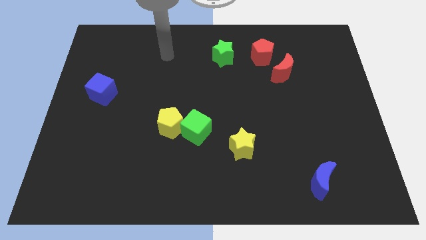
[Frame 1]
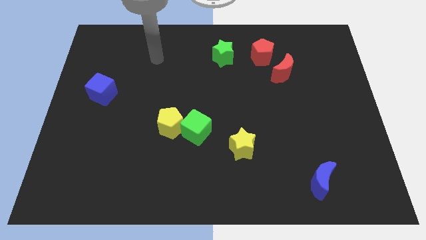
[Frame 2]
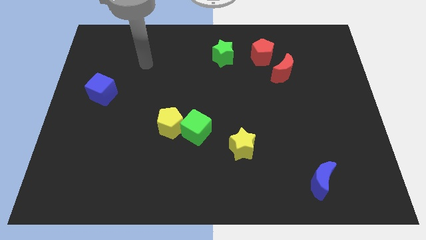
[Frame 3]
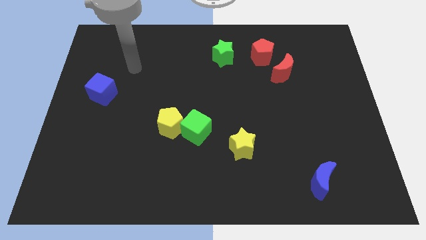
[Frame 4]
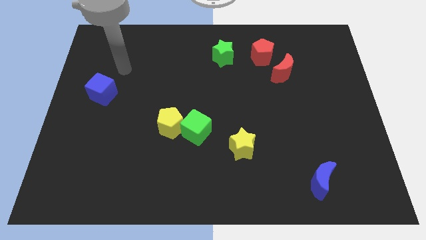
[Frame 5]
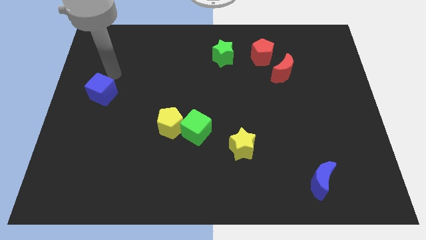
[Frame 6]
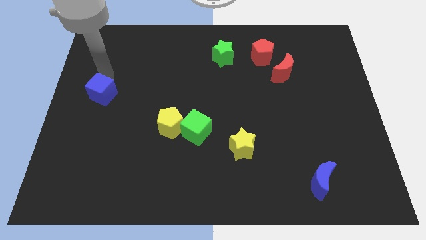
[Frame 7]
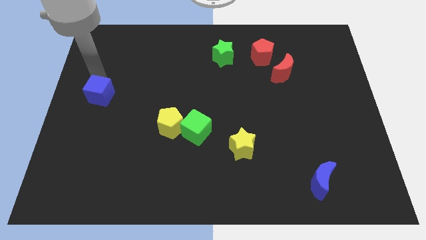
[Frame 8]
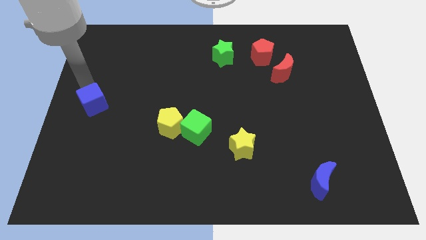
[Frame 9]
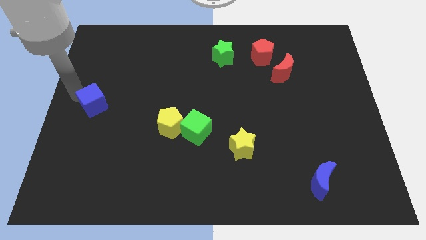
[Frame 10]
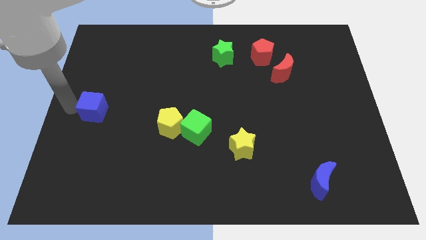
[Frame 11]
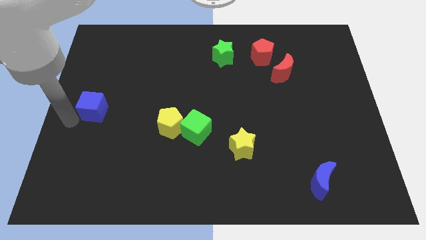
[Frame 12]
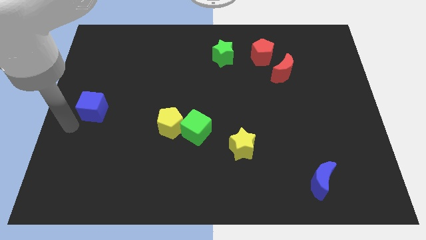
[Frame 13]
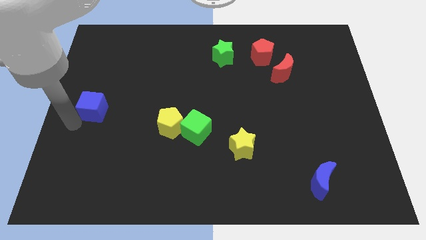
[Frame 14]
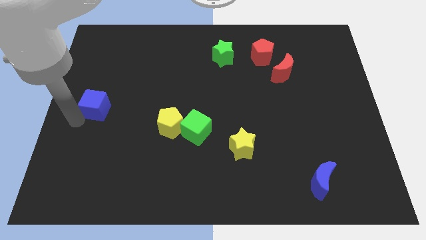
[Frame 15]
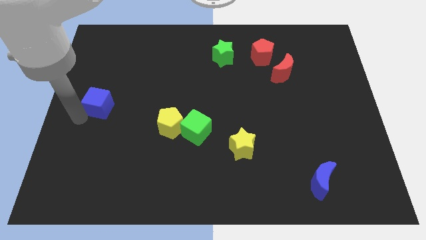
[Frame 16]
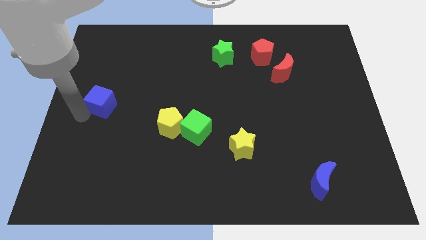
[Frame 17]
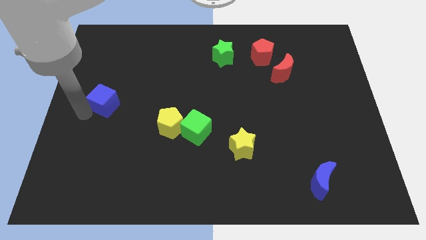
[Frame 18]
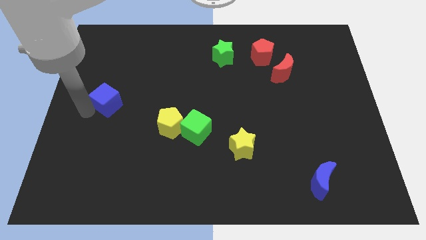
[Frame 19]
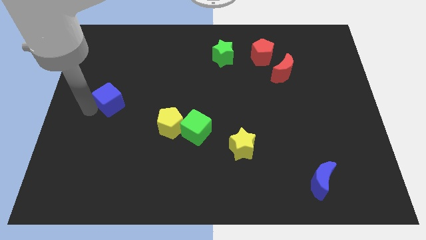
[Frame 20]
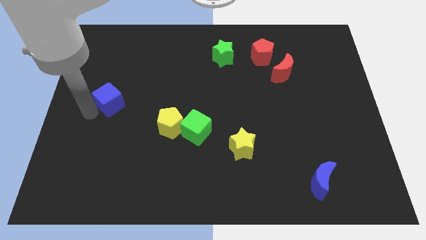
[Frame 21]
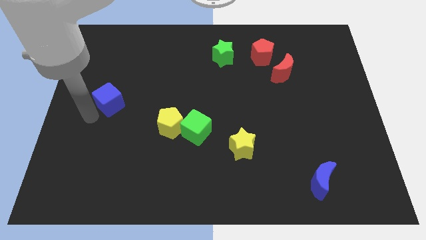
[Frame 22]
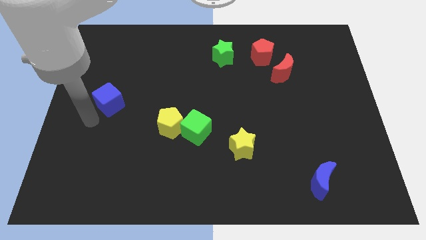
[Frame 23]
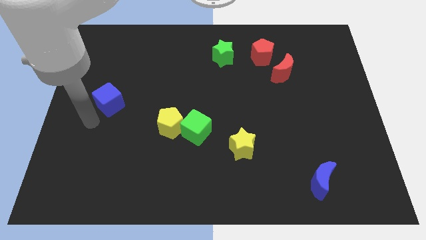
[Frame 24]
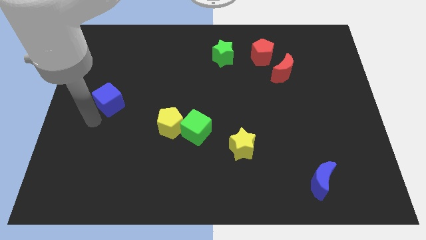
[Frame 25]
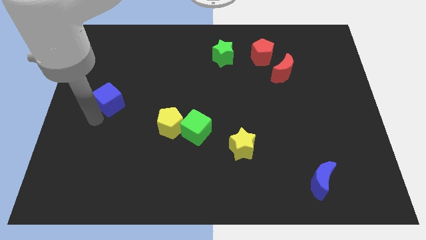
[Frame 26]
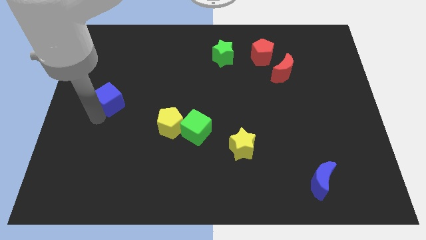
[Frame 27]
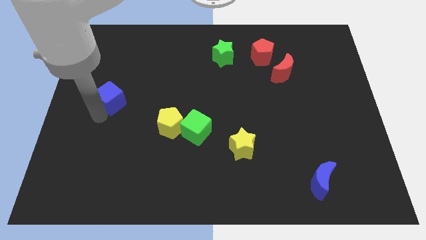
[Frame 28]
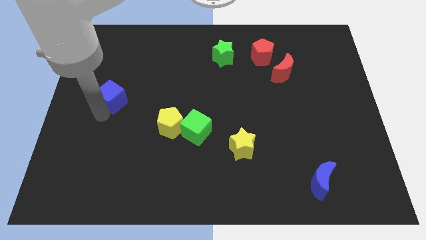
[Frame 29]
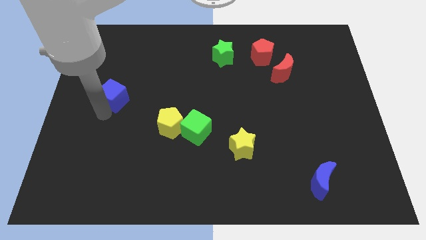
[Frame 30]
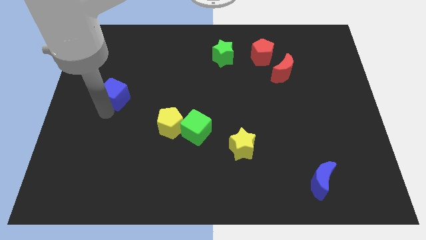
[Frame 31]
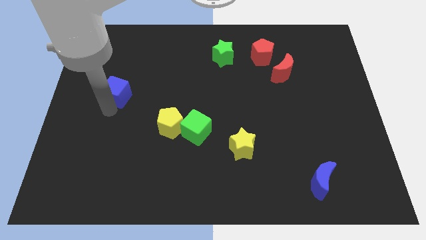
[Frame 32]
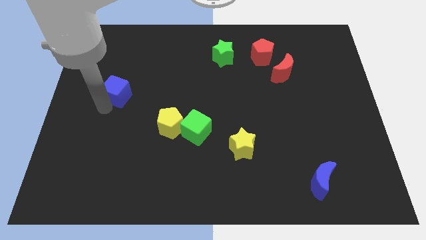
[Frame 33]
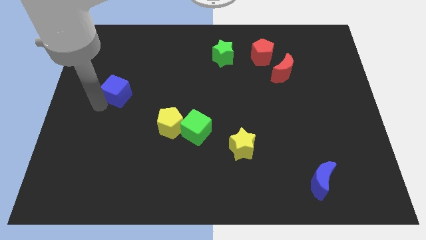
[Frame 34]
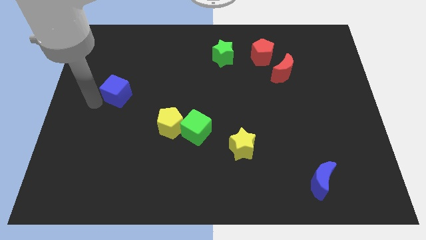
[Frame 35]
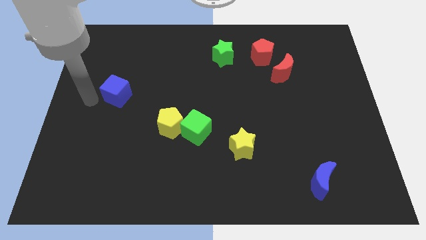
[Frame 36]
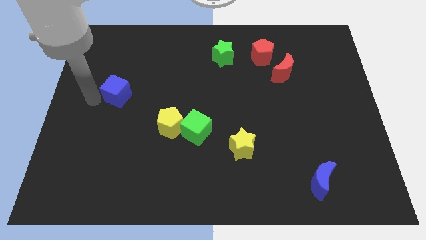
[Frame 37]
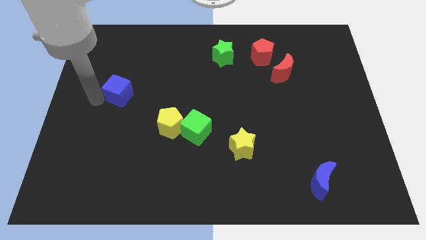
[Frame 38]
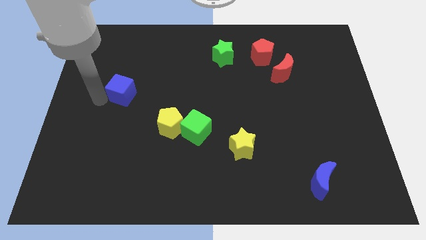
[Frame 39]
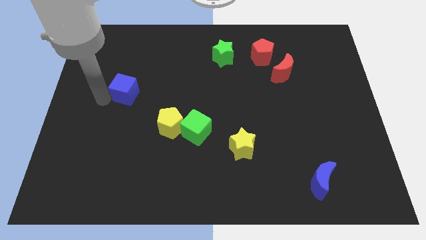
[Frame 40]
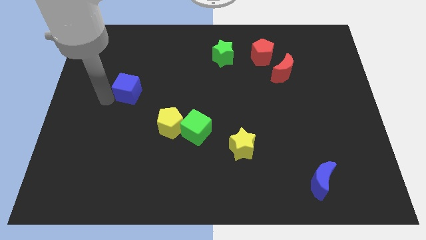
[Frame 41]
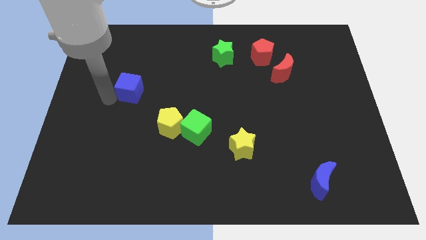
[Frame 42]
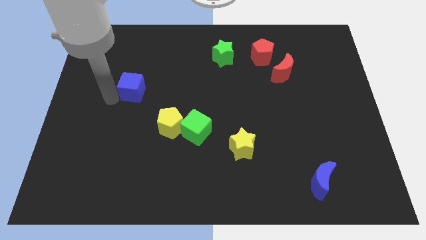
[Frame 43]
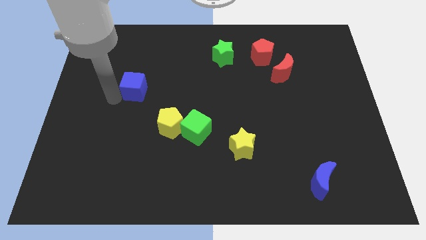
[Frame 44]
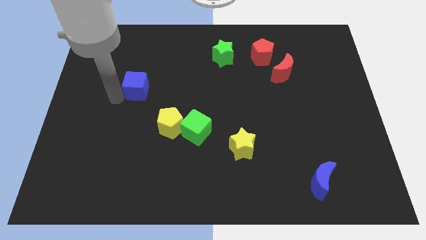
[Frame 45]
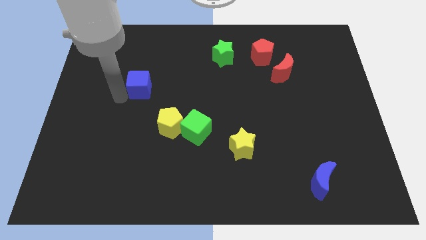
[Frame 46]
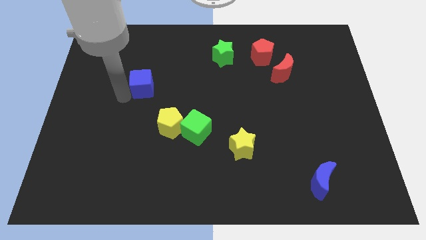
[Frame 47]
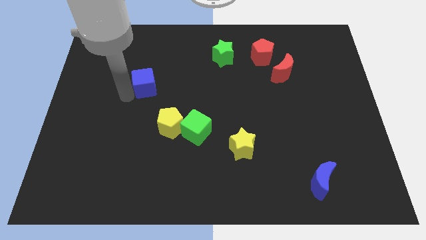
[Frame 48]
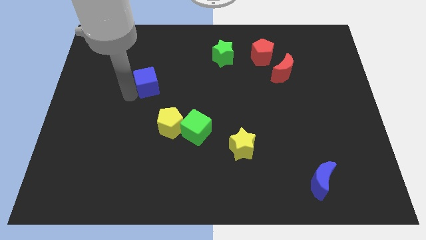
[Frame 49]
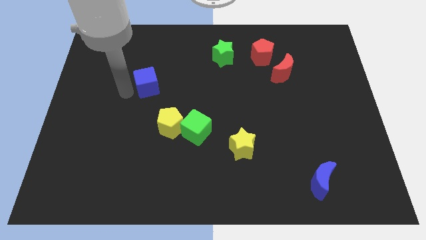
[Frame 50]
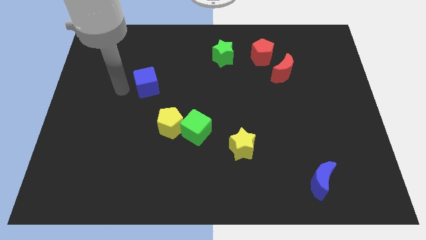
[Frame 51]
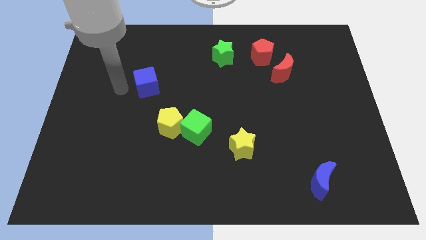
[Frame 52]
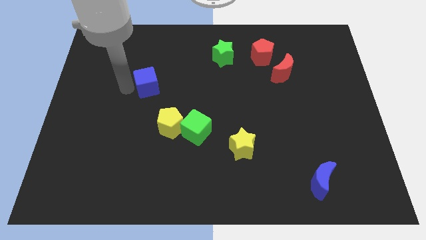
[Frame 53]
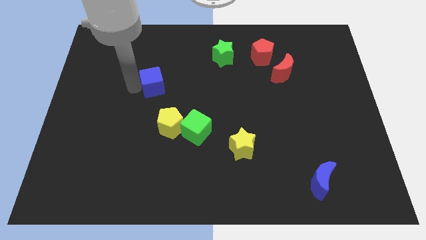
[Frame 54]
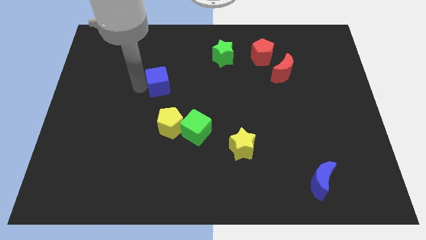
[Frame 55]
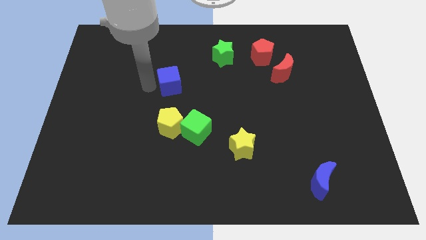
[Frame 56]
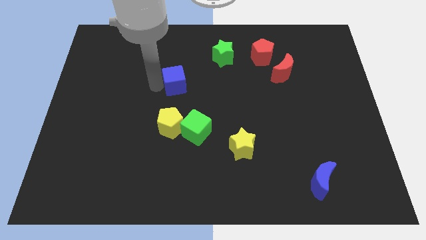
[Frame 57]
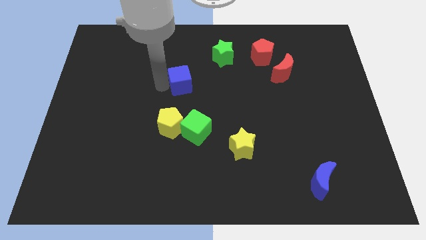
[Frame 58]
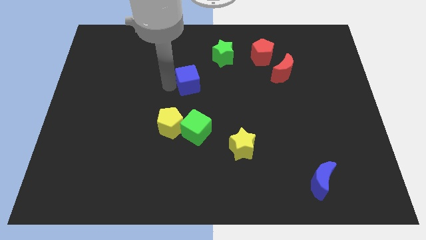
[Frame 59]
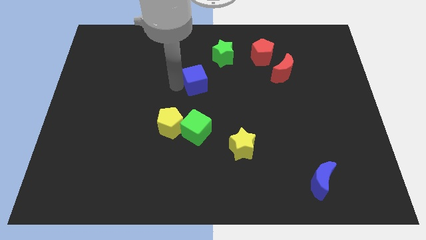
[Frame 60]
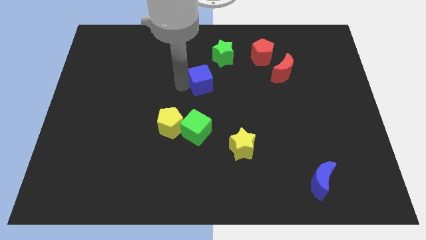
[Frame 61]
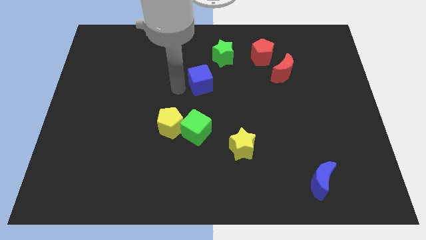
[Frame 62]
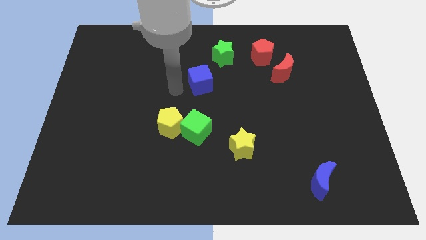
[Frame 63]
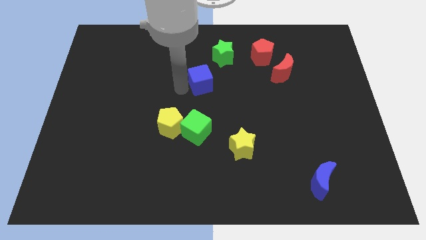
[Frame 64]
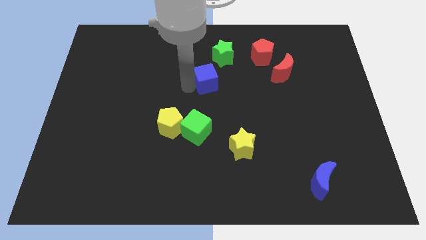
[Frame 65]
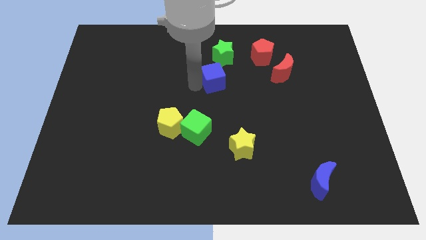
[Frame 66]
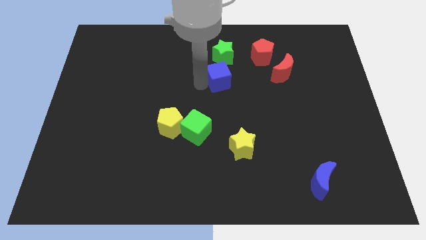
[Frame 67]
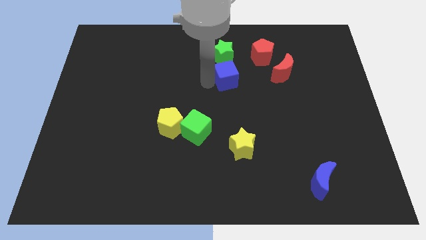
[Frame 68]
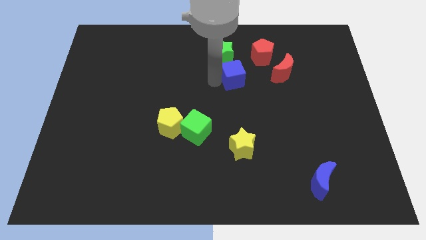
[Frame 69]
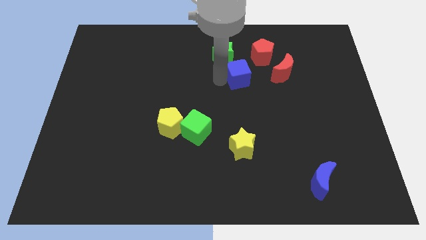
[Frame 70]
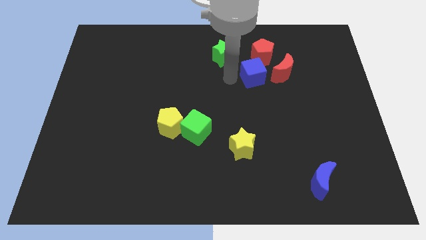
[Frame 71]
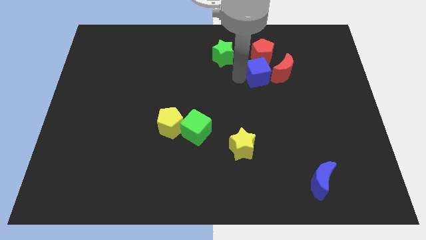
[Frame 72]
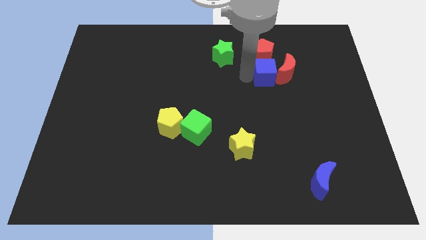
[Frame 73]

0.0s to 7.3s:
put the blue cube close to the red moon

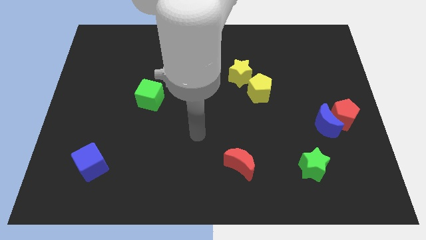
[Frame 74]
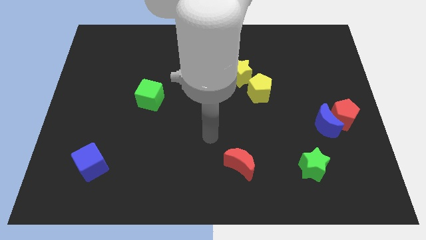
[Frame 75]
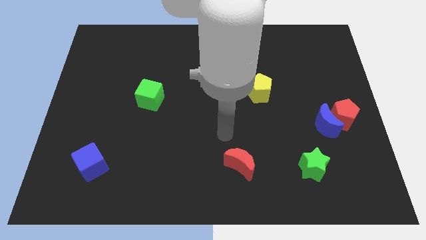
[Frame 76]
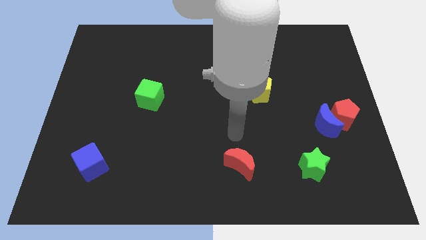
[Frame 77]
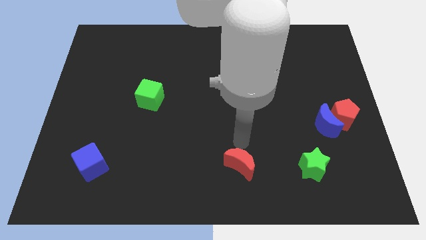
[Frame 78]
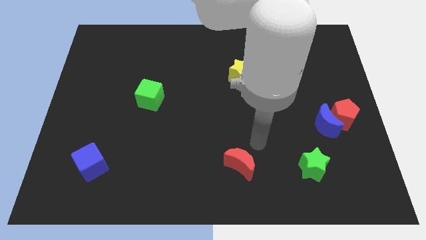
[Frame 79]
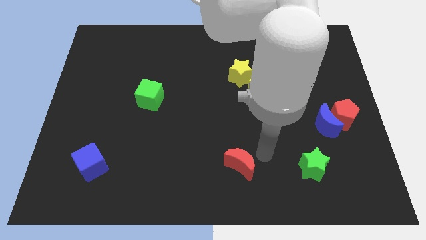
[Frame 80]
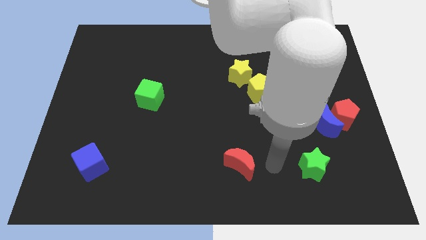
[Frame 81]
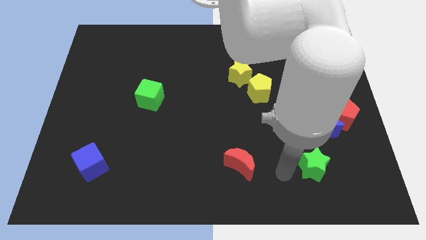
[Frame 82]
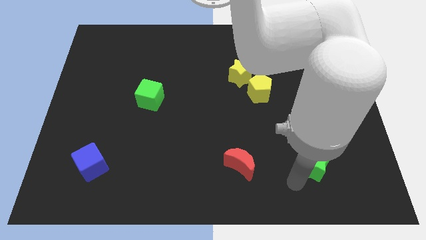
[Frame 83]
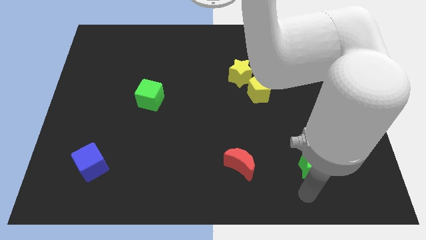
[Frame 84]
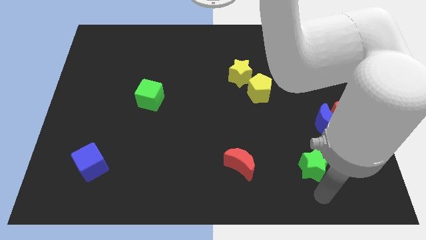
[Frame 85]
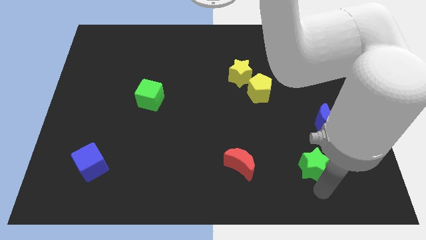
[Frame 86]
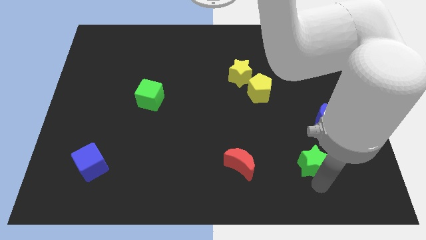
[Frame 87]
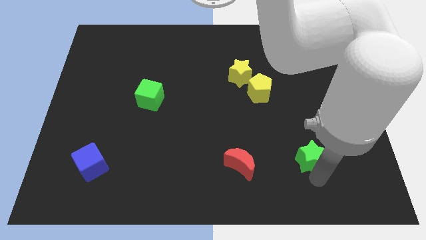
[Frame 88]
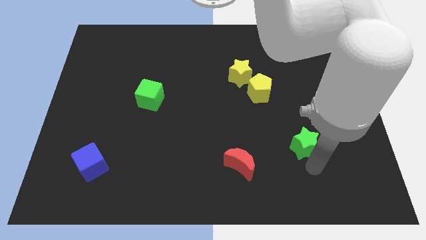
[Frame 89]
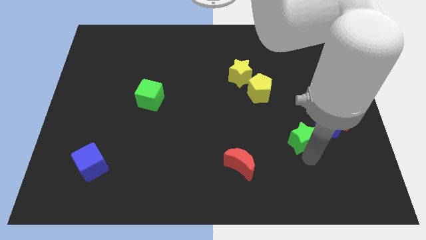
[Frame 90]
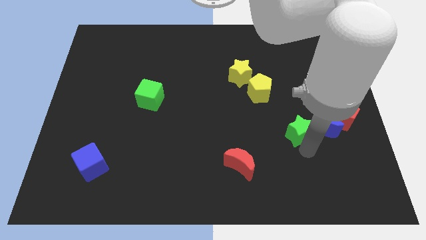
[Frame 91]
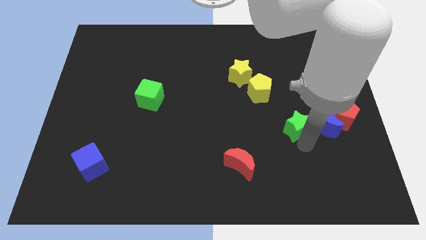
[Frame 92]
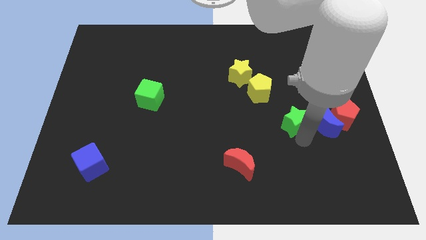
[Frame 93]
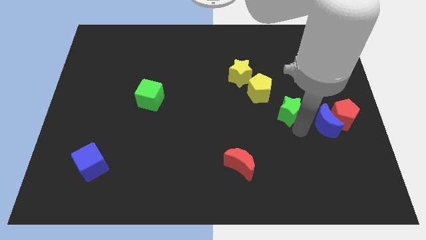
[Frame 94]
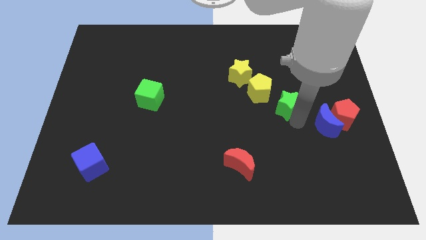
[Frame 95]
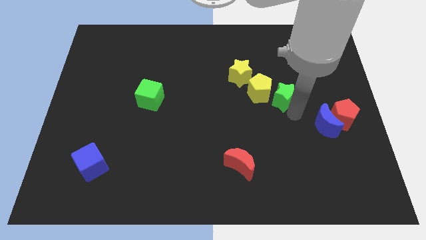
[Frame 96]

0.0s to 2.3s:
move the green star close to the yellow pentagon
